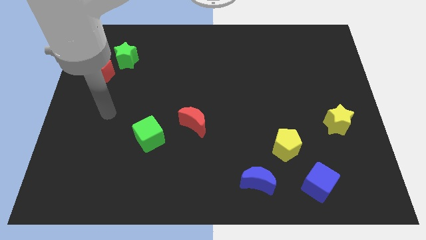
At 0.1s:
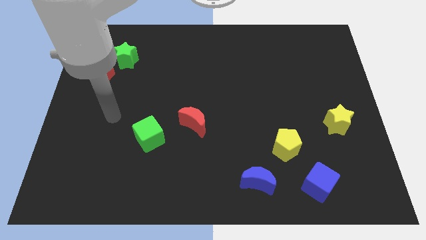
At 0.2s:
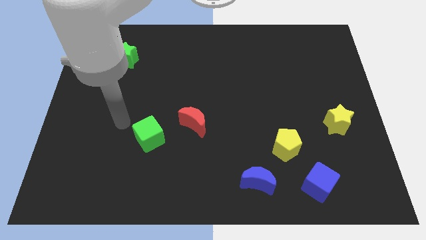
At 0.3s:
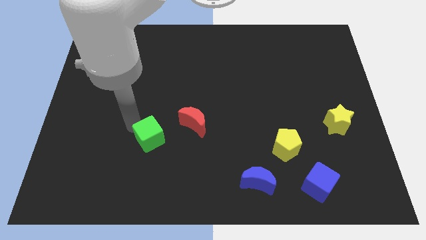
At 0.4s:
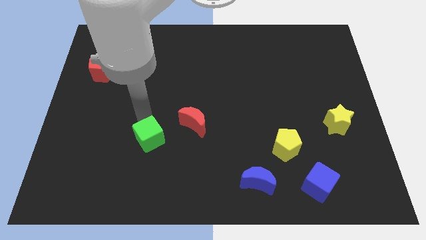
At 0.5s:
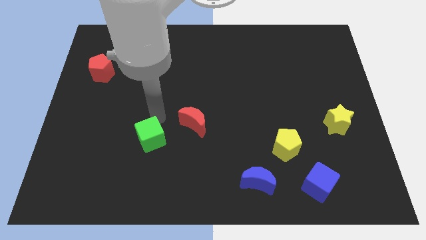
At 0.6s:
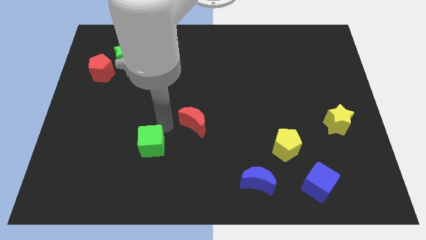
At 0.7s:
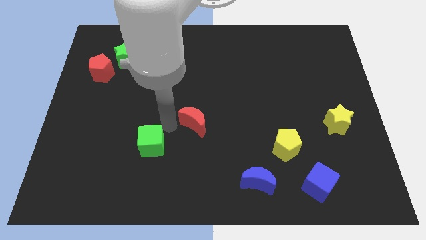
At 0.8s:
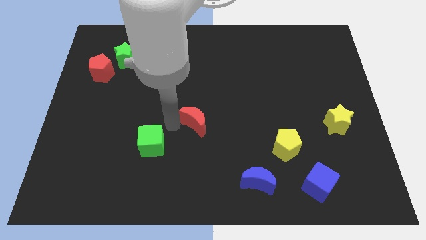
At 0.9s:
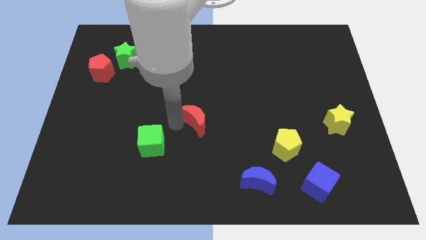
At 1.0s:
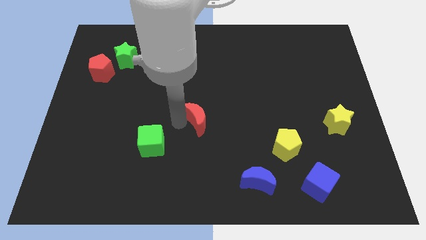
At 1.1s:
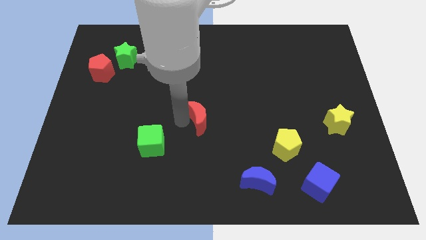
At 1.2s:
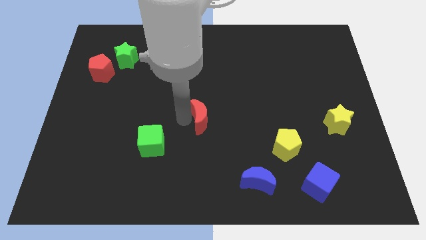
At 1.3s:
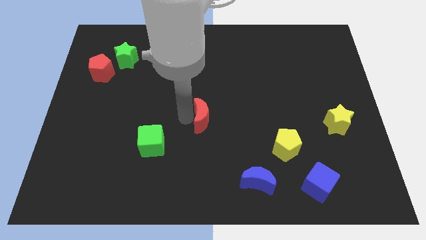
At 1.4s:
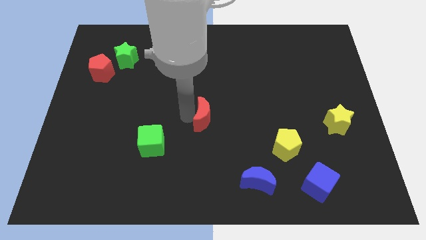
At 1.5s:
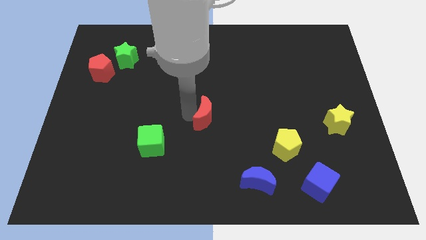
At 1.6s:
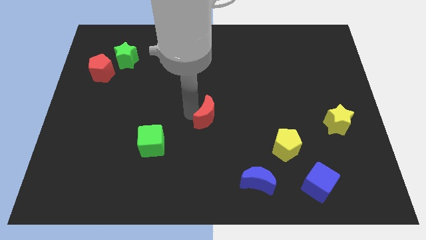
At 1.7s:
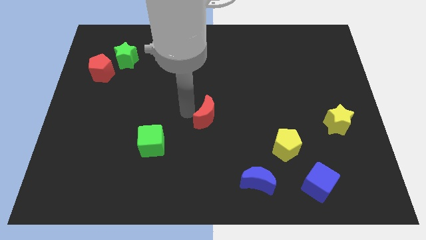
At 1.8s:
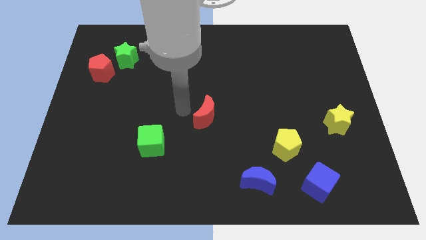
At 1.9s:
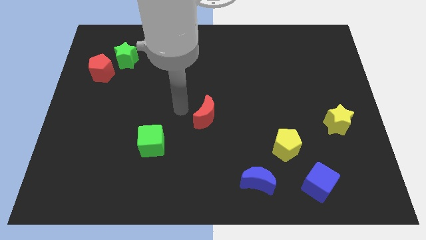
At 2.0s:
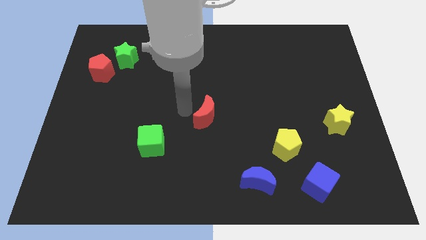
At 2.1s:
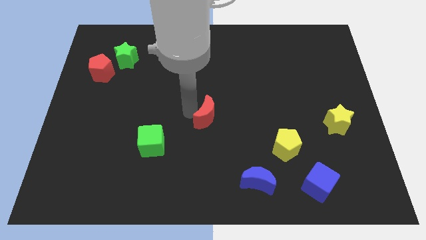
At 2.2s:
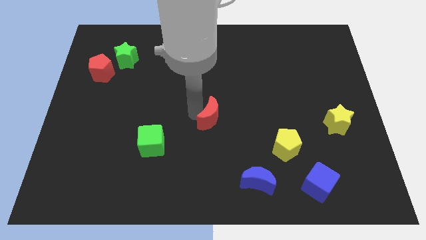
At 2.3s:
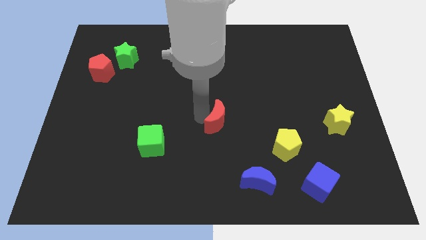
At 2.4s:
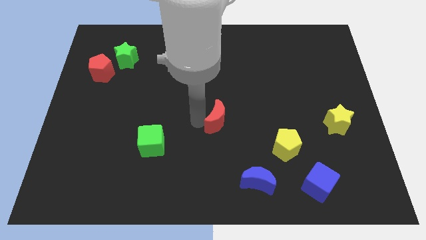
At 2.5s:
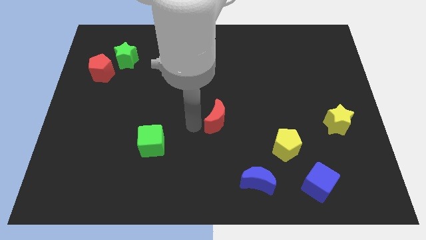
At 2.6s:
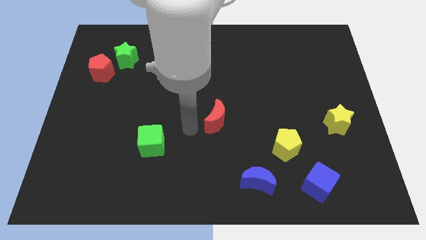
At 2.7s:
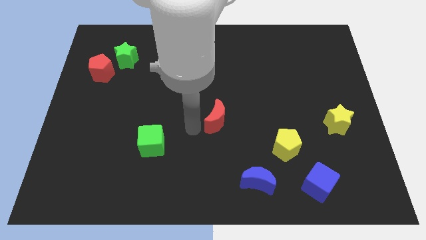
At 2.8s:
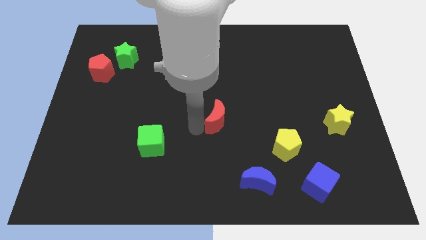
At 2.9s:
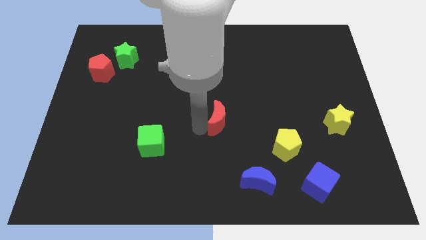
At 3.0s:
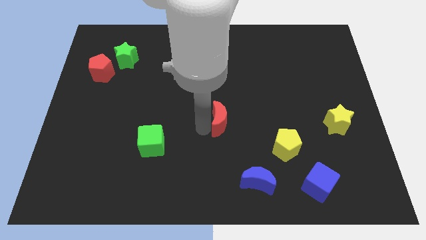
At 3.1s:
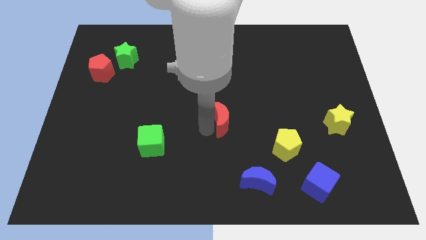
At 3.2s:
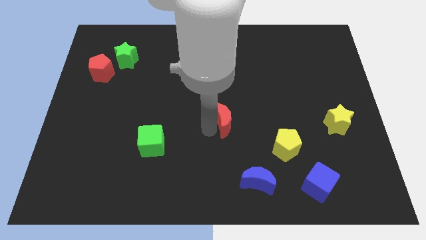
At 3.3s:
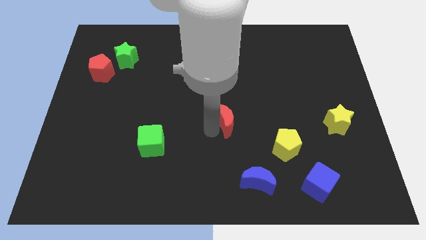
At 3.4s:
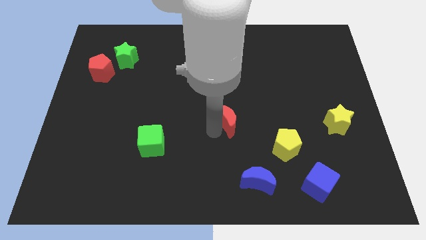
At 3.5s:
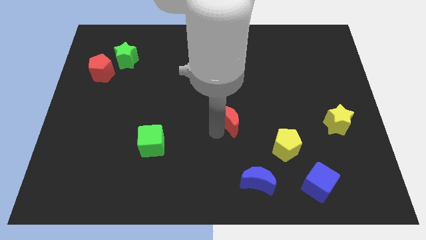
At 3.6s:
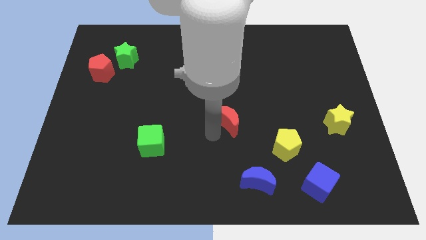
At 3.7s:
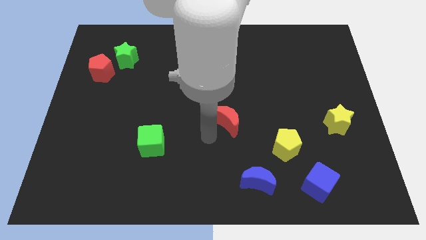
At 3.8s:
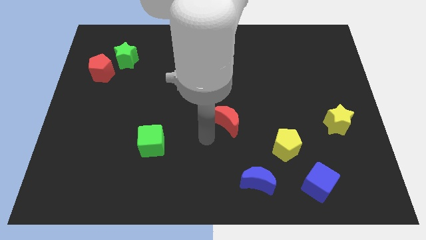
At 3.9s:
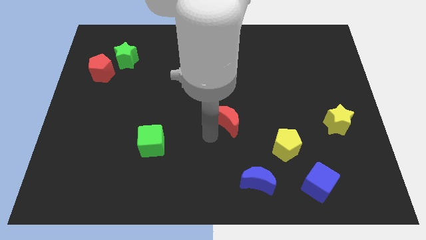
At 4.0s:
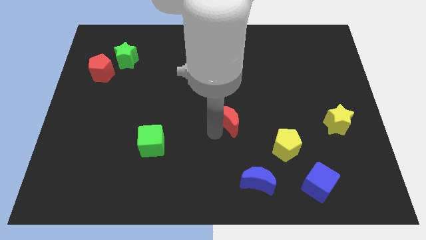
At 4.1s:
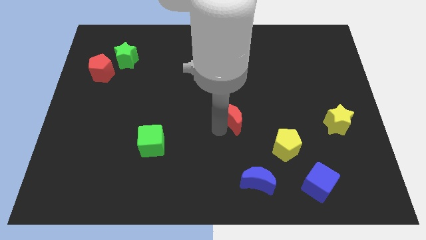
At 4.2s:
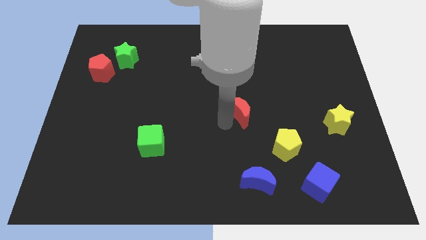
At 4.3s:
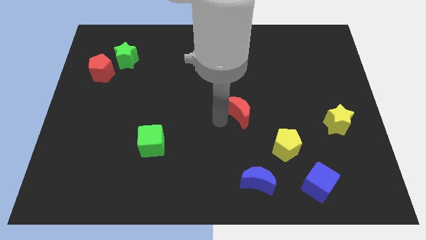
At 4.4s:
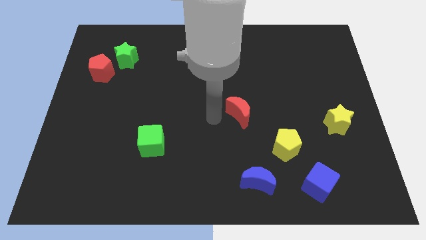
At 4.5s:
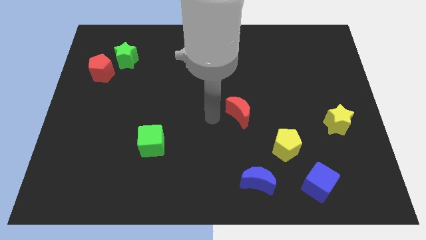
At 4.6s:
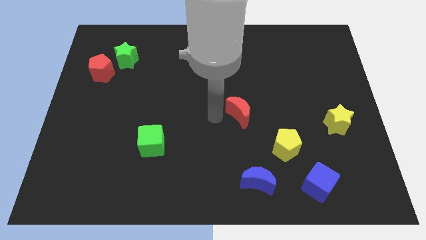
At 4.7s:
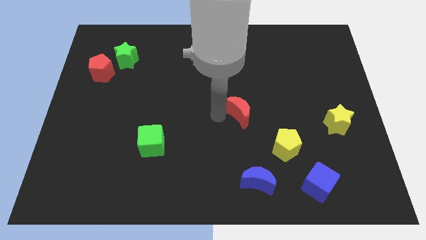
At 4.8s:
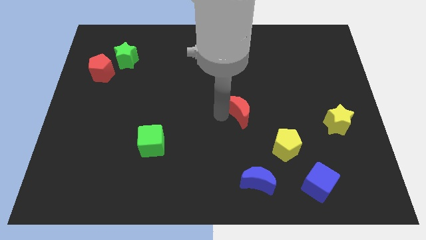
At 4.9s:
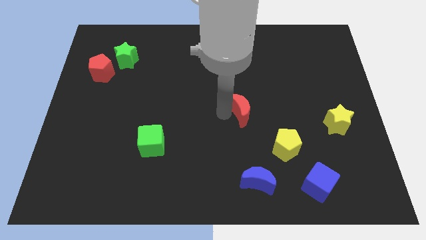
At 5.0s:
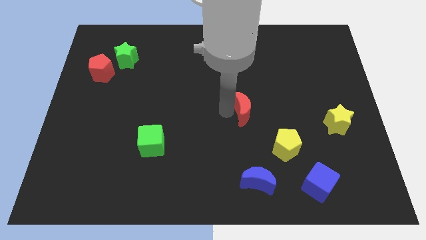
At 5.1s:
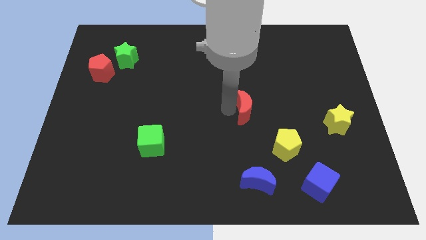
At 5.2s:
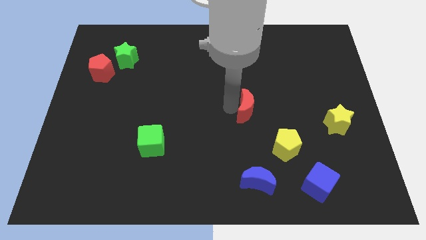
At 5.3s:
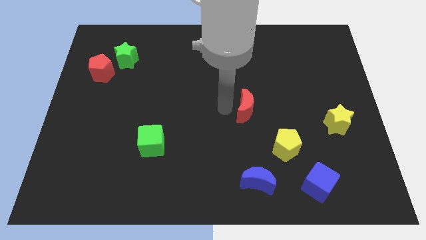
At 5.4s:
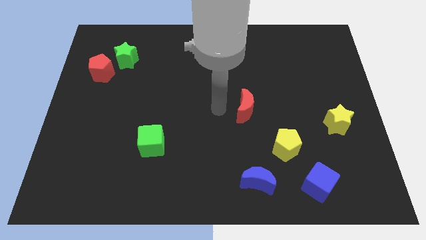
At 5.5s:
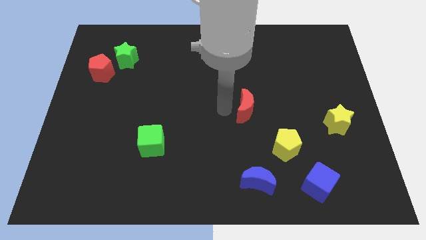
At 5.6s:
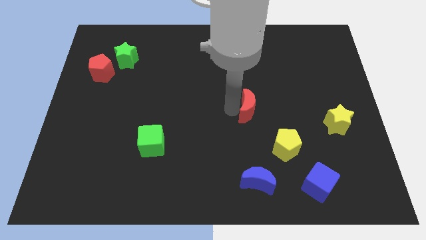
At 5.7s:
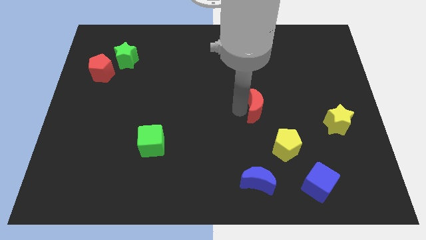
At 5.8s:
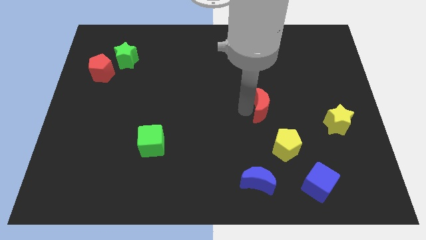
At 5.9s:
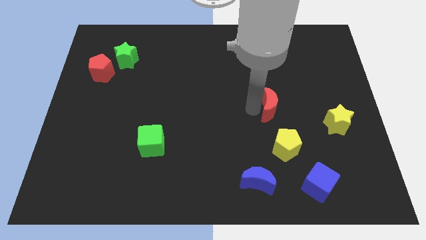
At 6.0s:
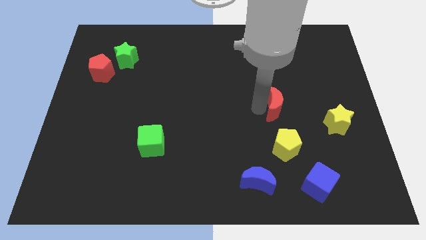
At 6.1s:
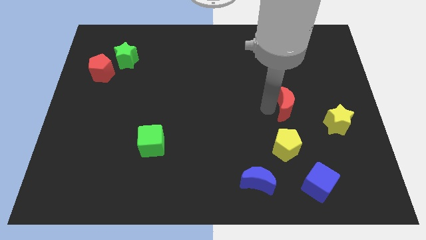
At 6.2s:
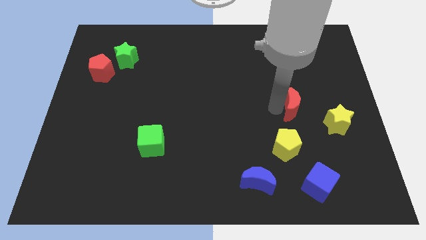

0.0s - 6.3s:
slide the red moon to the top left of the yellow star
